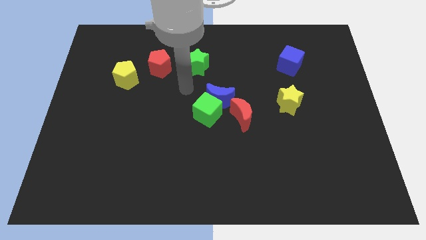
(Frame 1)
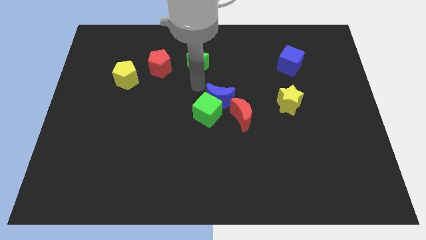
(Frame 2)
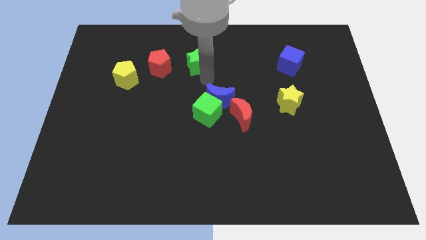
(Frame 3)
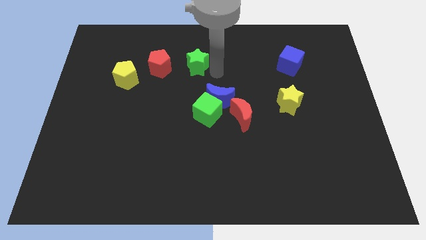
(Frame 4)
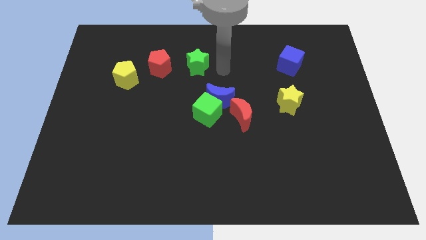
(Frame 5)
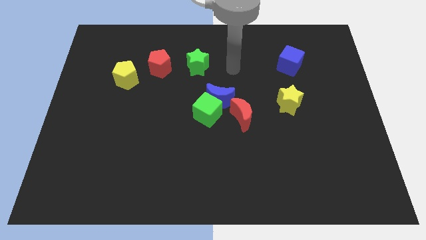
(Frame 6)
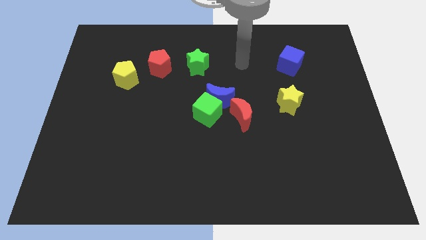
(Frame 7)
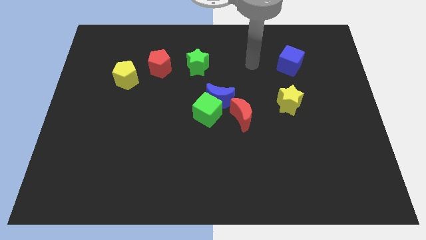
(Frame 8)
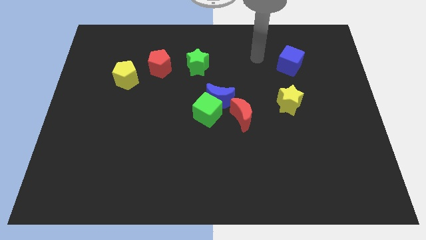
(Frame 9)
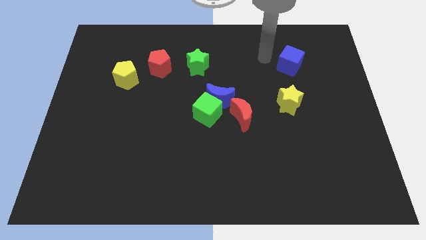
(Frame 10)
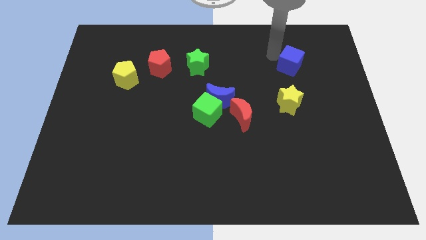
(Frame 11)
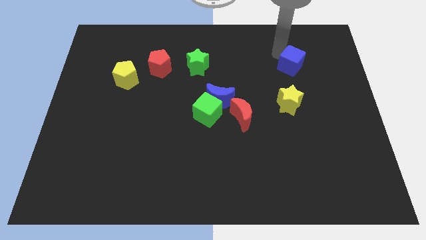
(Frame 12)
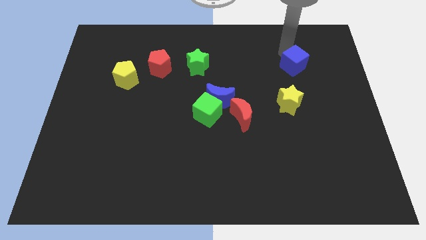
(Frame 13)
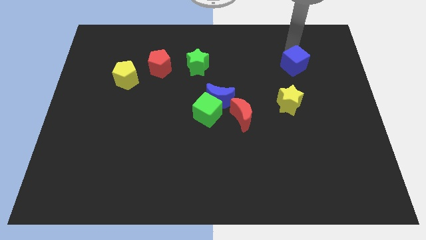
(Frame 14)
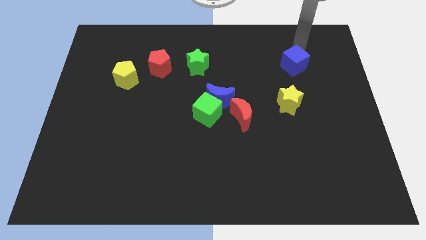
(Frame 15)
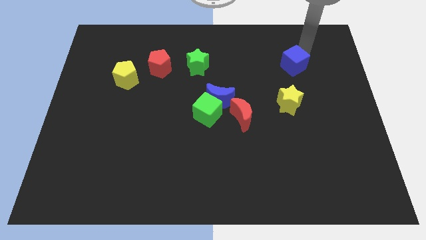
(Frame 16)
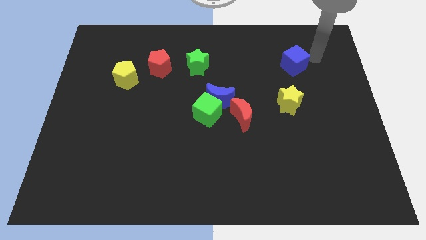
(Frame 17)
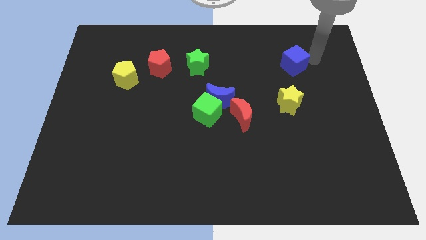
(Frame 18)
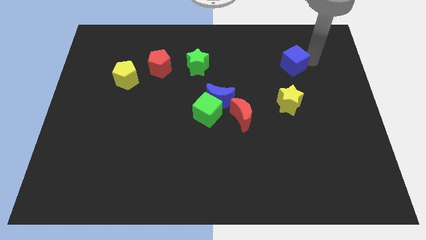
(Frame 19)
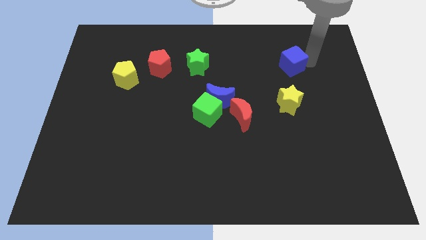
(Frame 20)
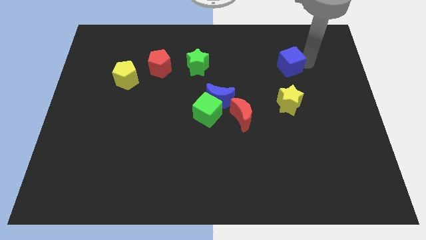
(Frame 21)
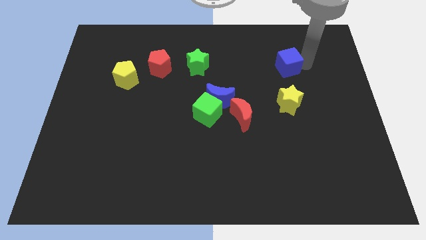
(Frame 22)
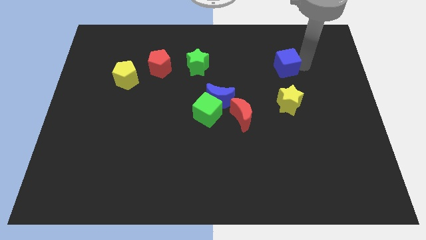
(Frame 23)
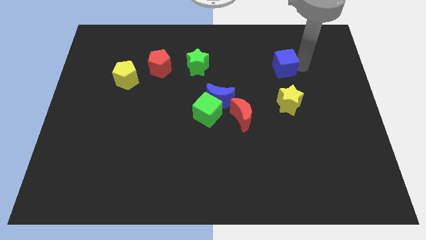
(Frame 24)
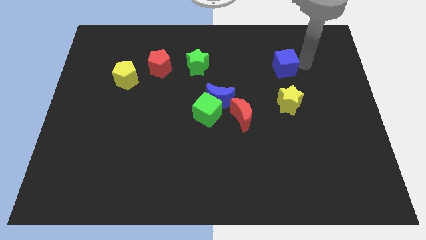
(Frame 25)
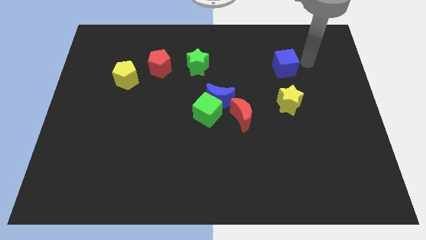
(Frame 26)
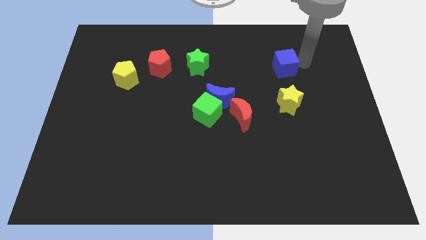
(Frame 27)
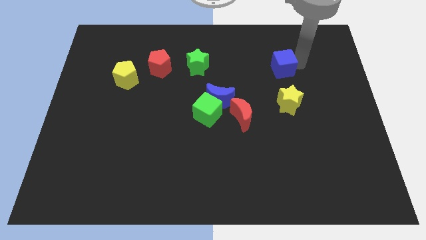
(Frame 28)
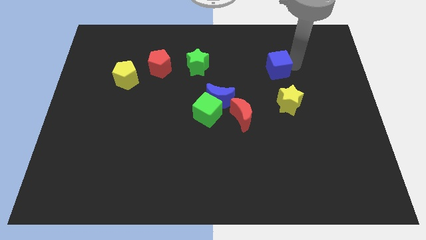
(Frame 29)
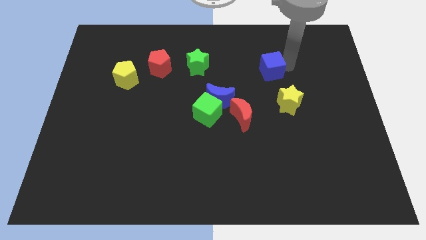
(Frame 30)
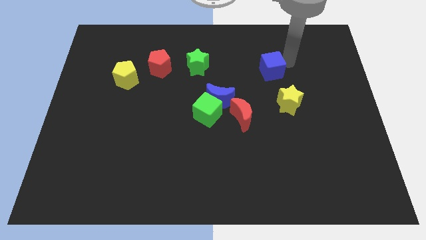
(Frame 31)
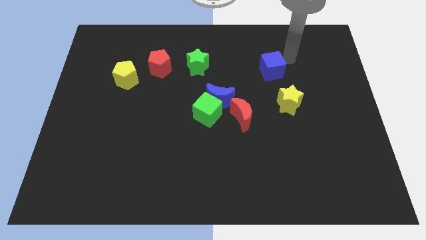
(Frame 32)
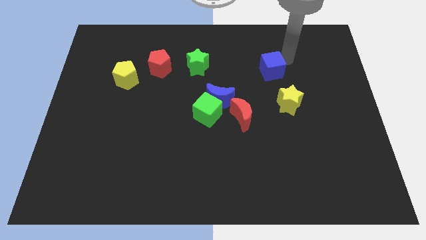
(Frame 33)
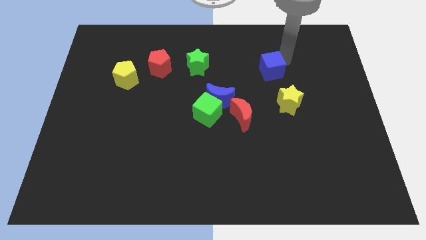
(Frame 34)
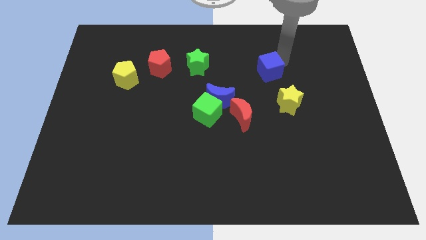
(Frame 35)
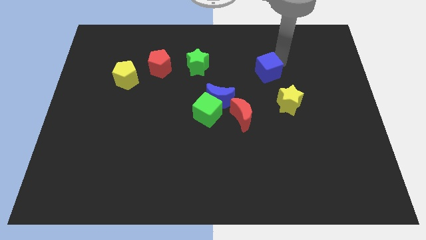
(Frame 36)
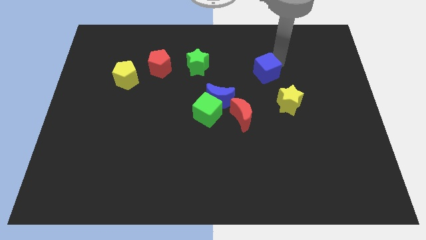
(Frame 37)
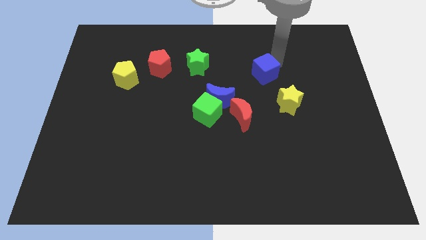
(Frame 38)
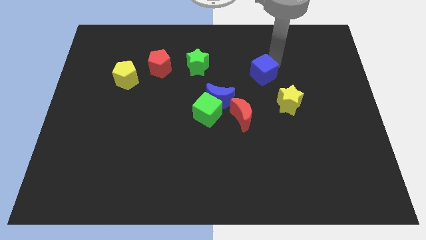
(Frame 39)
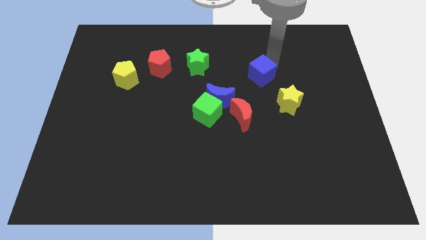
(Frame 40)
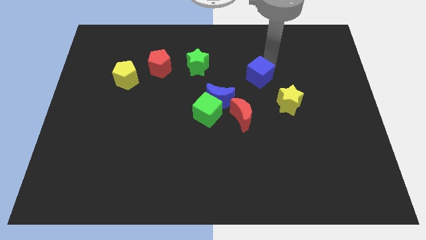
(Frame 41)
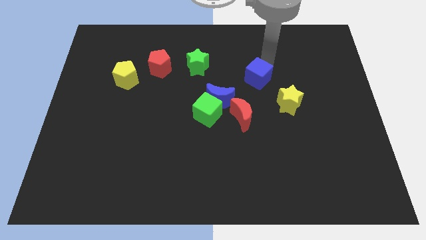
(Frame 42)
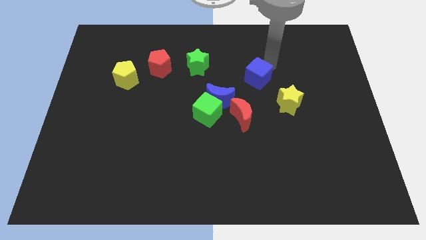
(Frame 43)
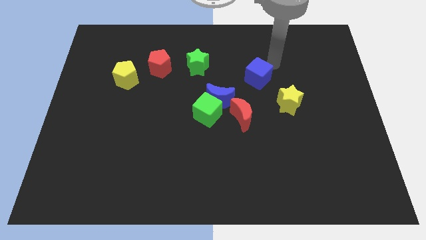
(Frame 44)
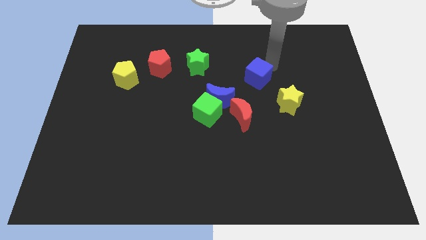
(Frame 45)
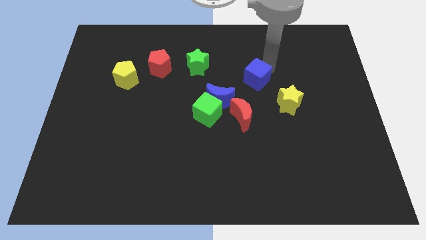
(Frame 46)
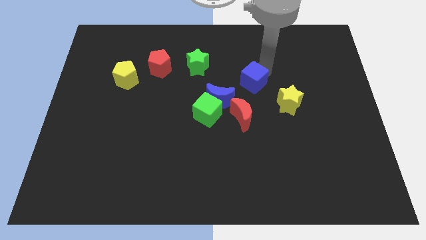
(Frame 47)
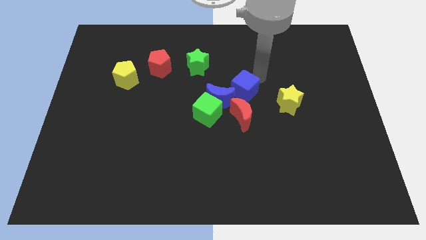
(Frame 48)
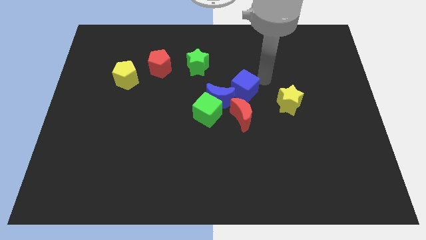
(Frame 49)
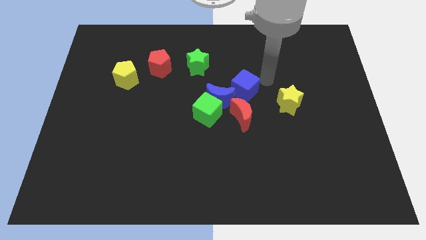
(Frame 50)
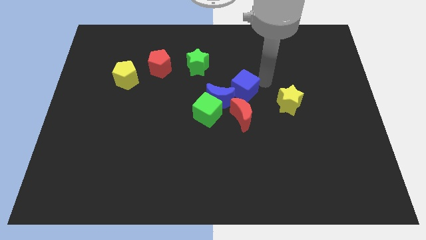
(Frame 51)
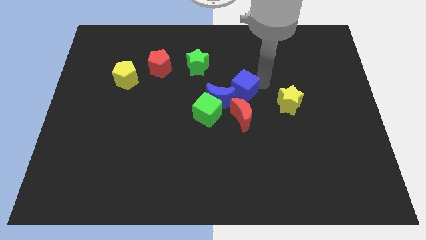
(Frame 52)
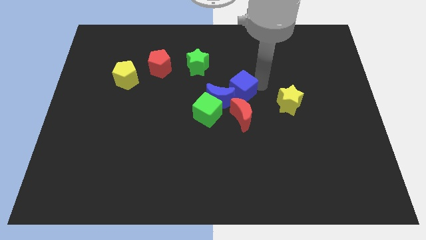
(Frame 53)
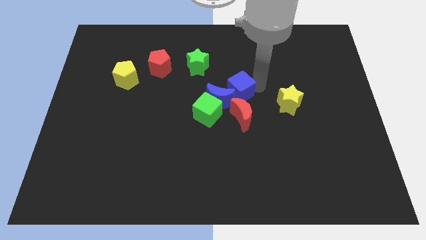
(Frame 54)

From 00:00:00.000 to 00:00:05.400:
slide the blue cube to the blue moon

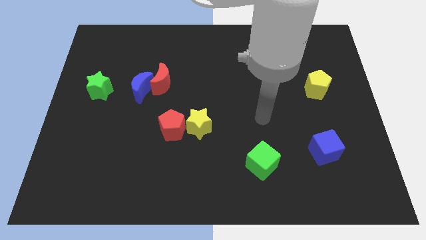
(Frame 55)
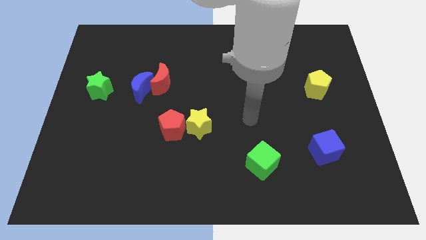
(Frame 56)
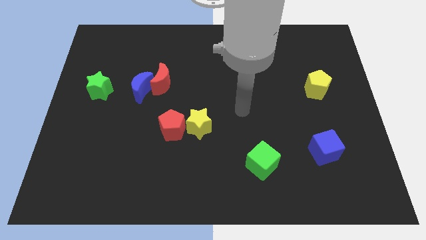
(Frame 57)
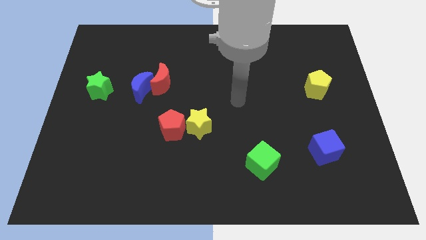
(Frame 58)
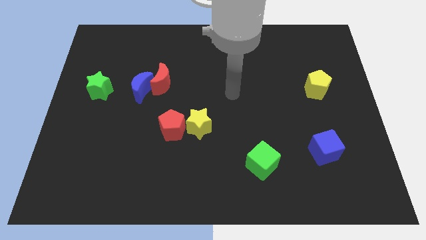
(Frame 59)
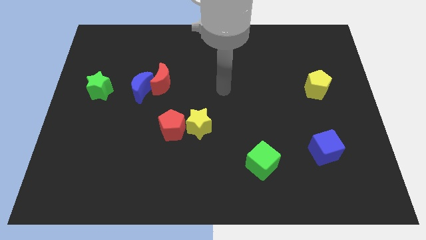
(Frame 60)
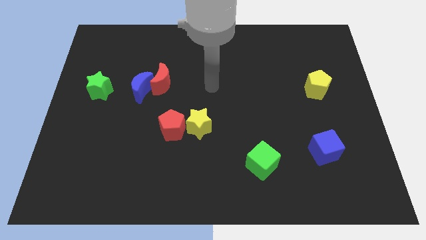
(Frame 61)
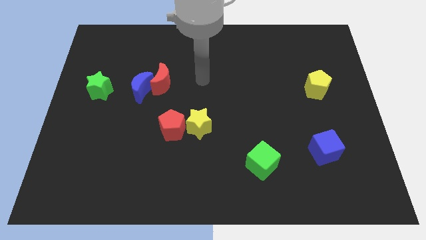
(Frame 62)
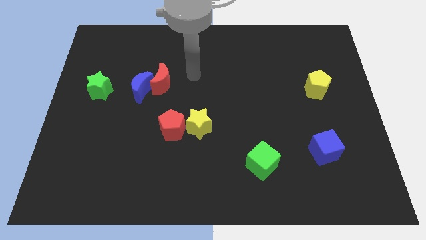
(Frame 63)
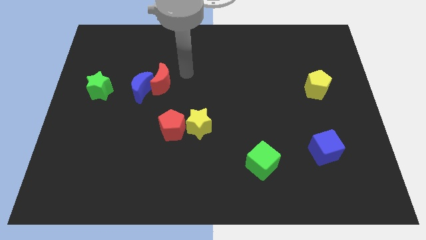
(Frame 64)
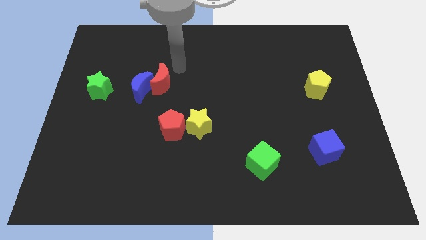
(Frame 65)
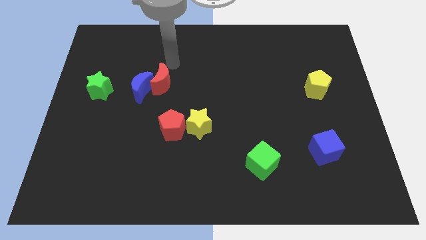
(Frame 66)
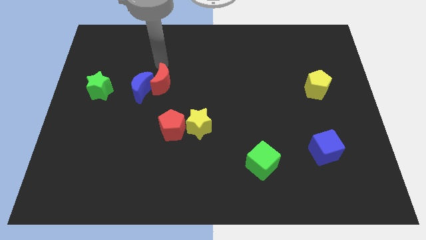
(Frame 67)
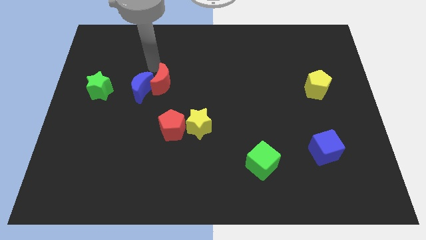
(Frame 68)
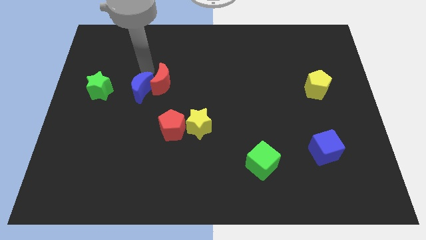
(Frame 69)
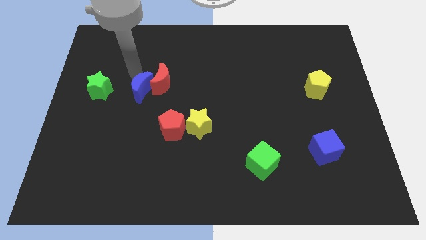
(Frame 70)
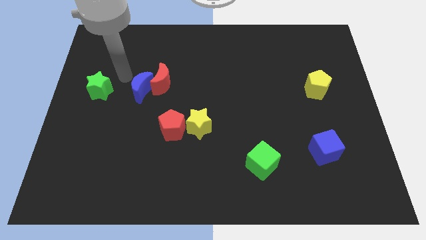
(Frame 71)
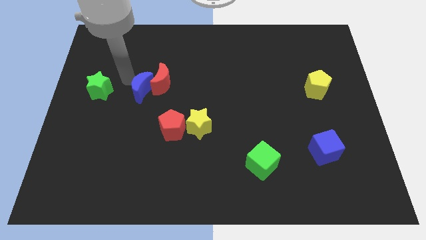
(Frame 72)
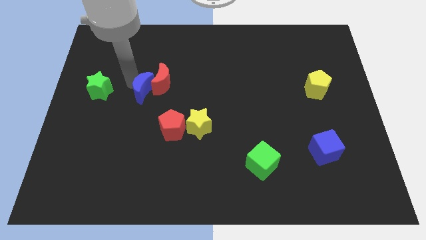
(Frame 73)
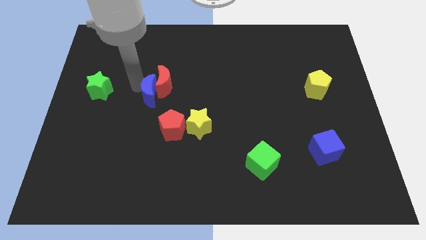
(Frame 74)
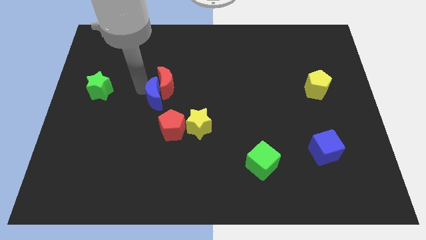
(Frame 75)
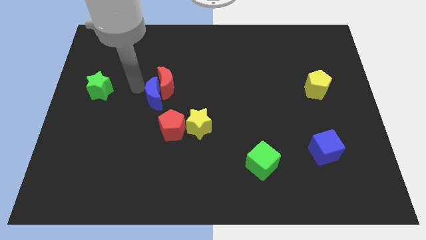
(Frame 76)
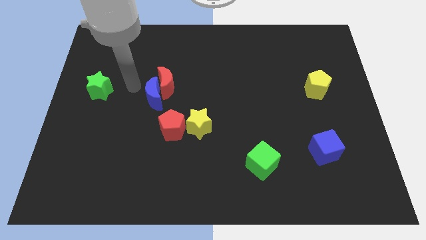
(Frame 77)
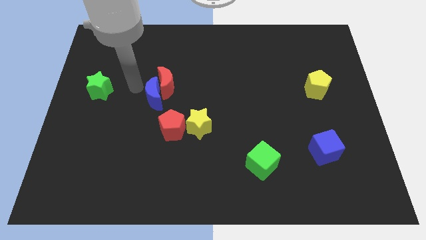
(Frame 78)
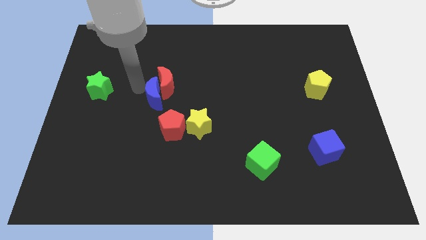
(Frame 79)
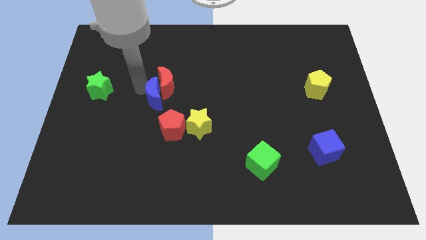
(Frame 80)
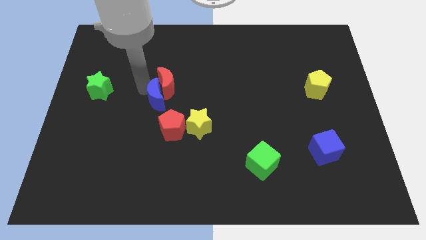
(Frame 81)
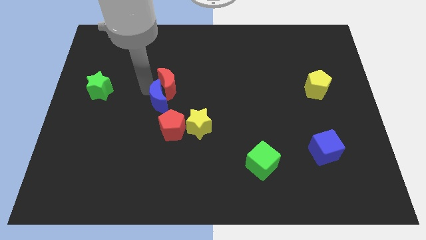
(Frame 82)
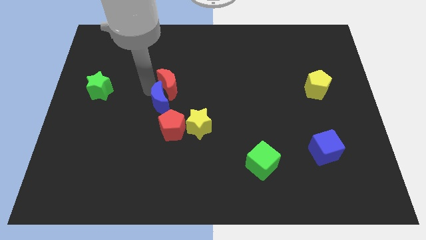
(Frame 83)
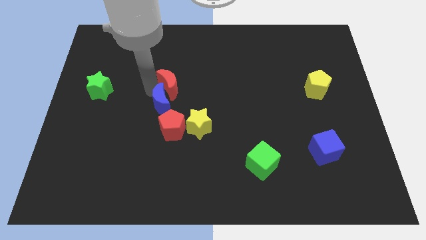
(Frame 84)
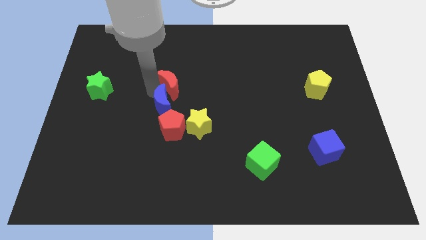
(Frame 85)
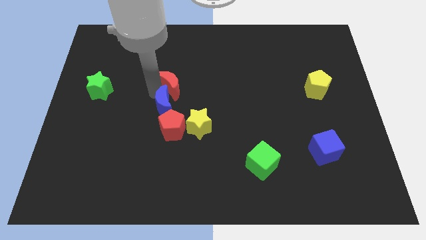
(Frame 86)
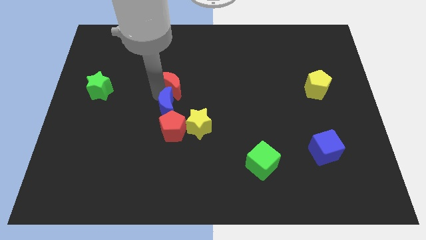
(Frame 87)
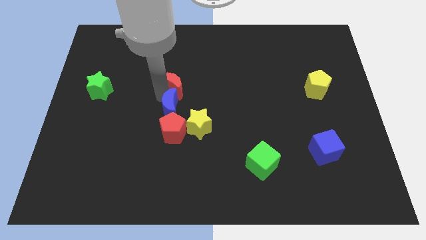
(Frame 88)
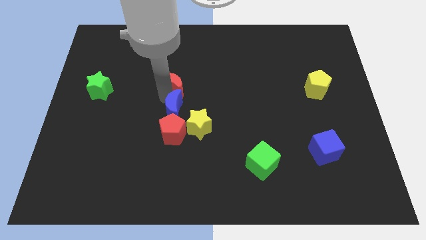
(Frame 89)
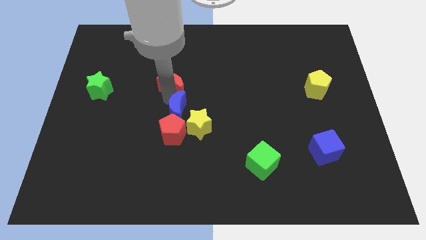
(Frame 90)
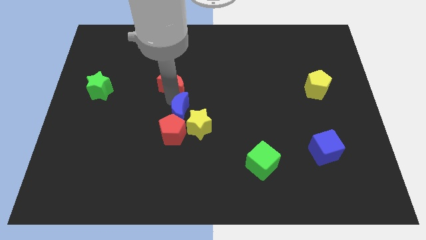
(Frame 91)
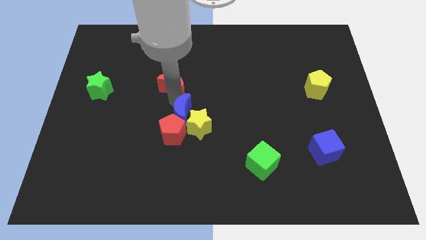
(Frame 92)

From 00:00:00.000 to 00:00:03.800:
slide the blue moon close to the yellow star
